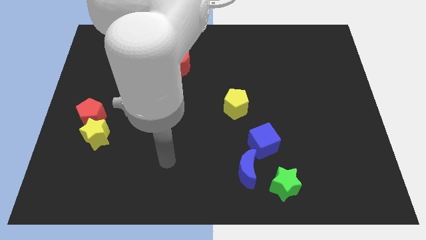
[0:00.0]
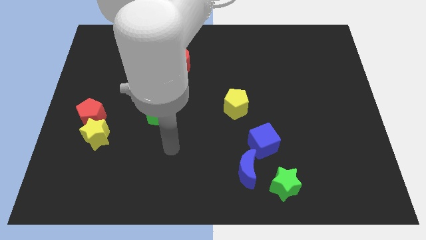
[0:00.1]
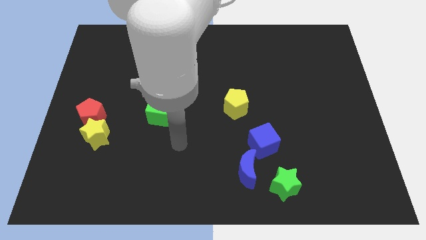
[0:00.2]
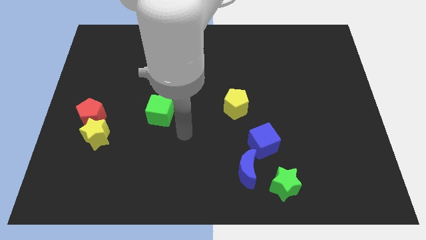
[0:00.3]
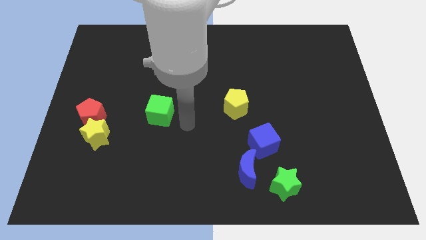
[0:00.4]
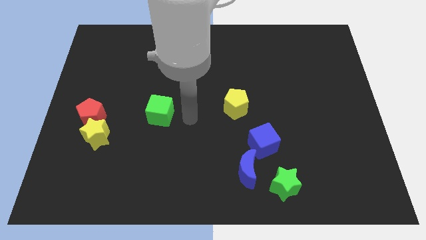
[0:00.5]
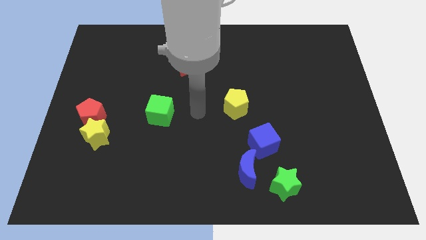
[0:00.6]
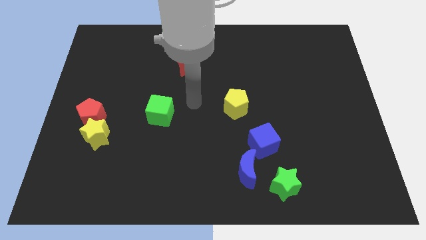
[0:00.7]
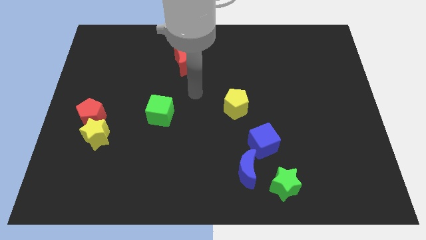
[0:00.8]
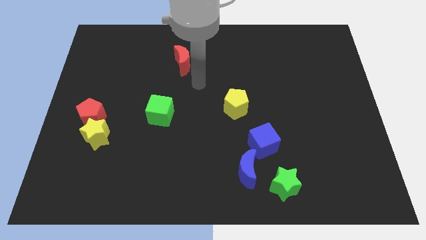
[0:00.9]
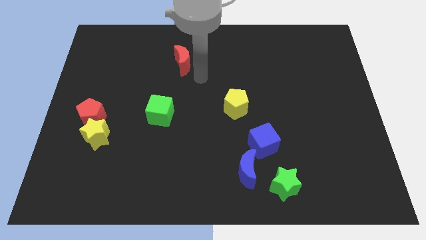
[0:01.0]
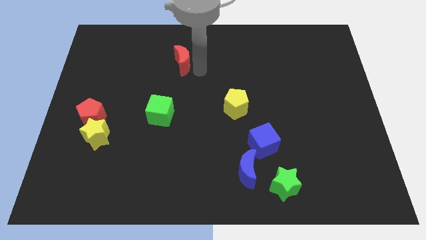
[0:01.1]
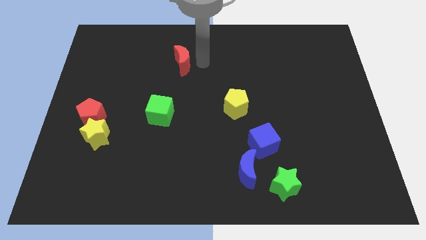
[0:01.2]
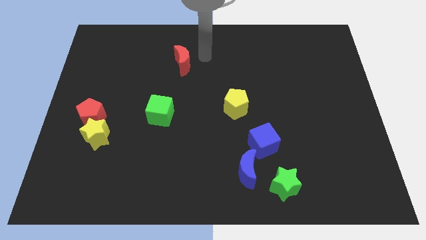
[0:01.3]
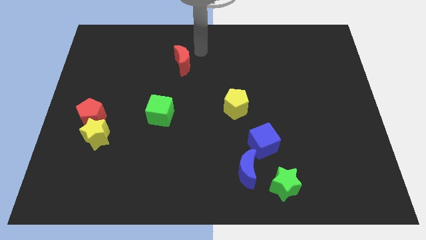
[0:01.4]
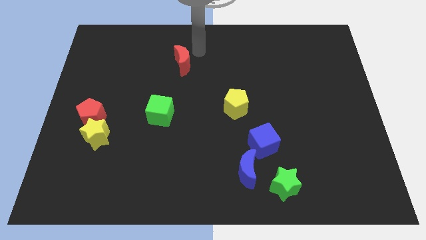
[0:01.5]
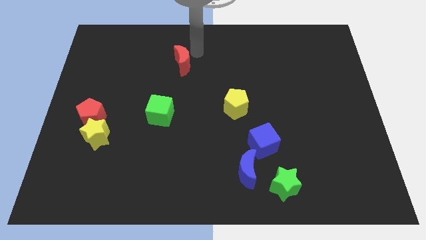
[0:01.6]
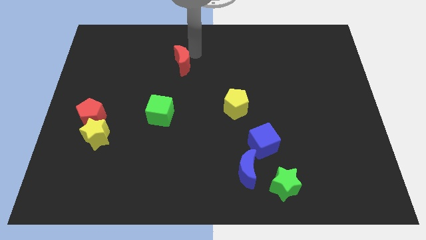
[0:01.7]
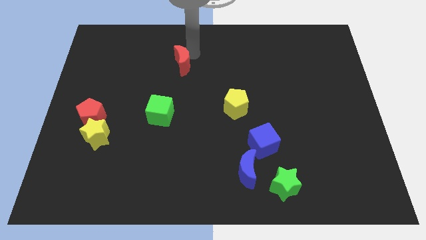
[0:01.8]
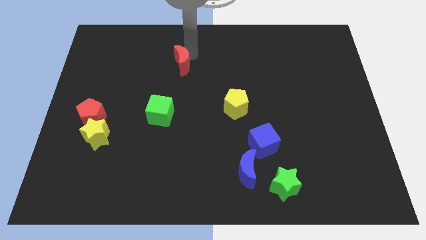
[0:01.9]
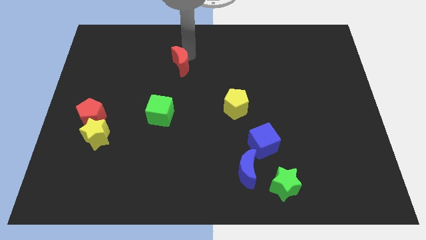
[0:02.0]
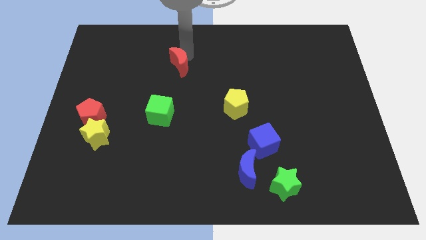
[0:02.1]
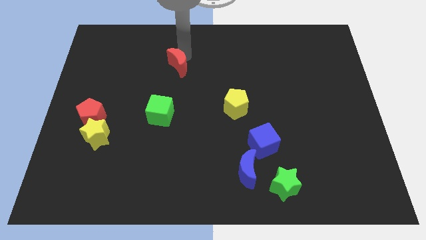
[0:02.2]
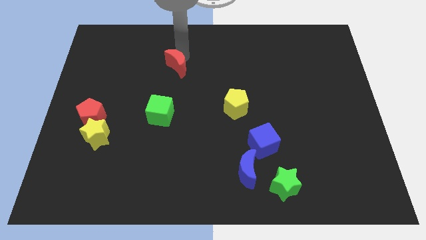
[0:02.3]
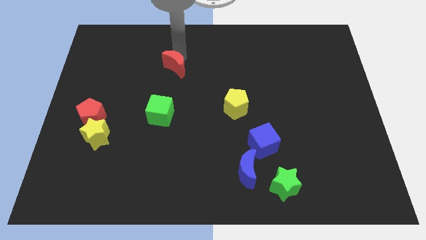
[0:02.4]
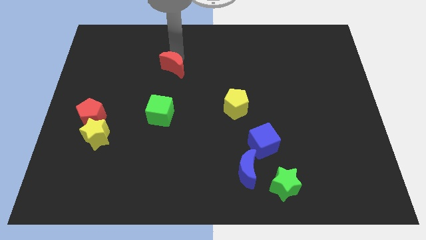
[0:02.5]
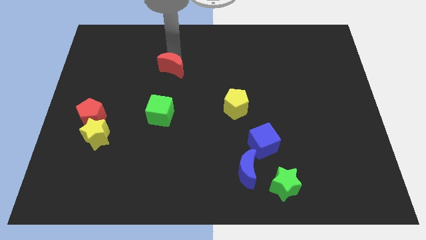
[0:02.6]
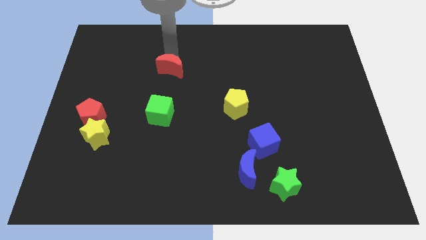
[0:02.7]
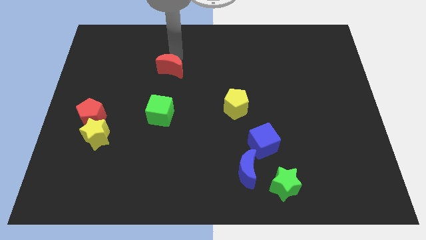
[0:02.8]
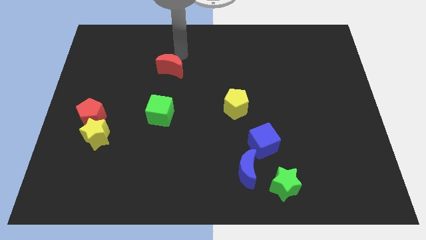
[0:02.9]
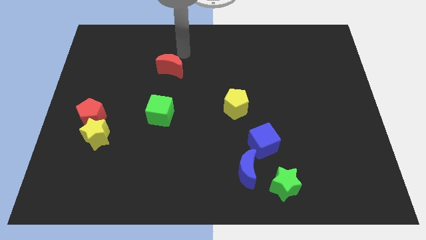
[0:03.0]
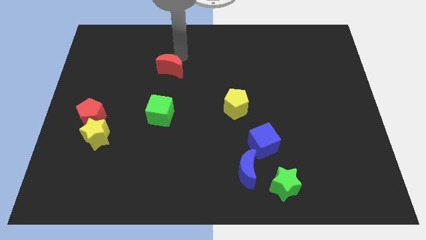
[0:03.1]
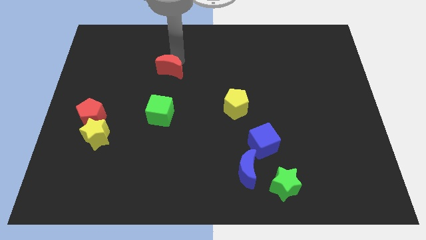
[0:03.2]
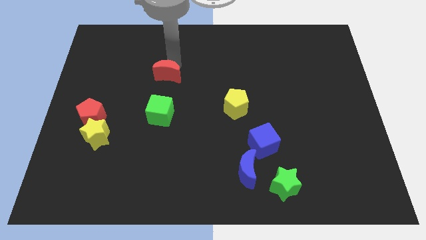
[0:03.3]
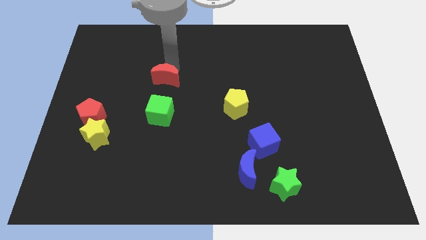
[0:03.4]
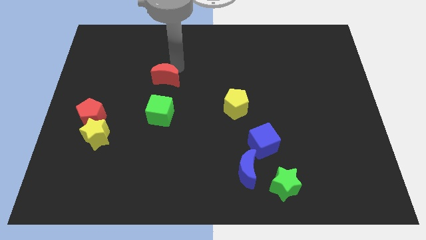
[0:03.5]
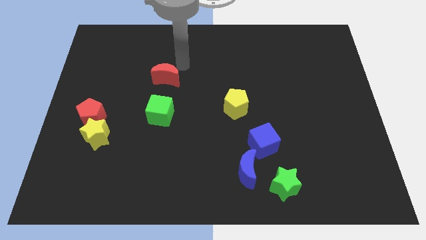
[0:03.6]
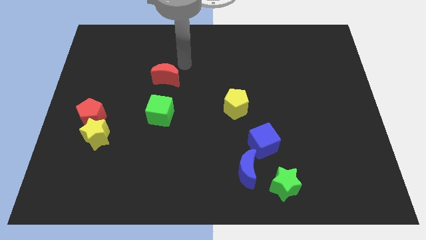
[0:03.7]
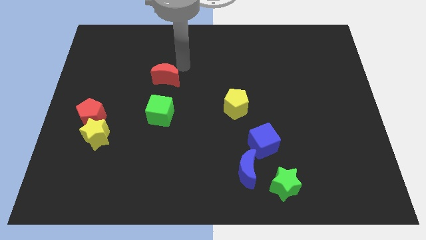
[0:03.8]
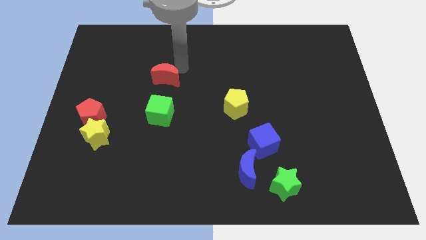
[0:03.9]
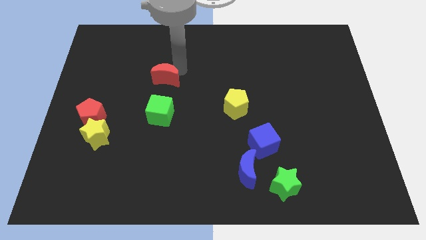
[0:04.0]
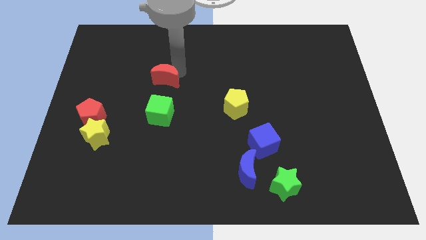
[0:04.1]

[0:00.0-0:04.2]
move the red moon a little bit downwards and then left

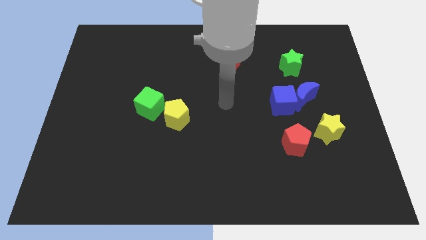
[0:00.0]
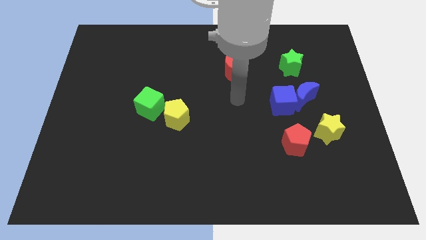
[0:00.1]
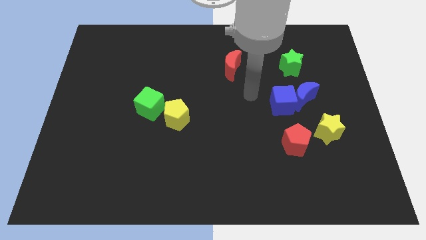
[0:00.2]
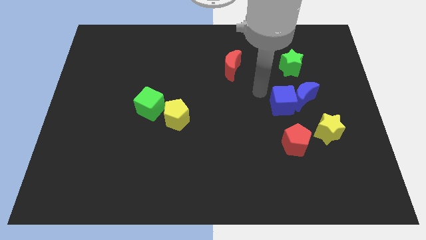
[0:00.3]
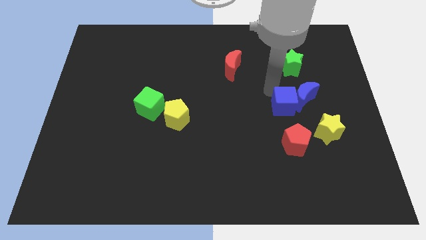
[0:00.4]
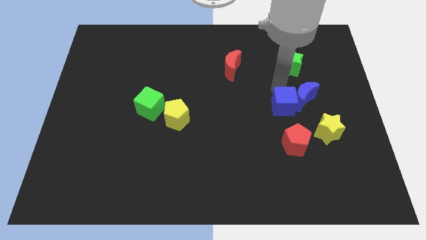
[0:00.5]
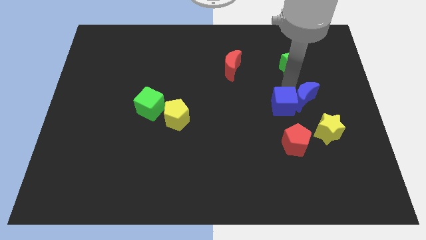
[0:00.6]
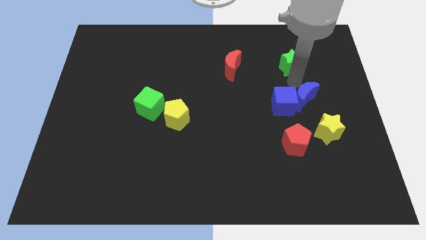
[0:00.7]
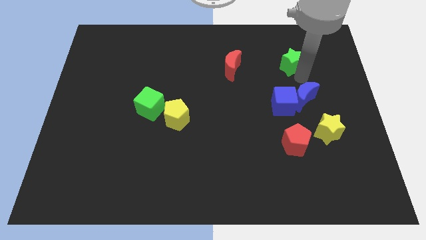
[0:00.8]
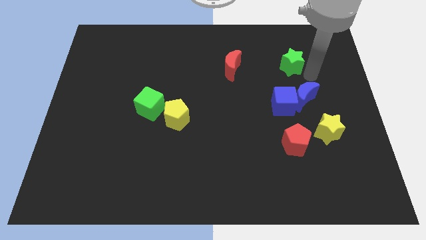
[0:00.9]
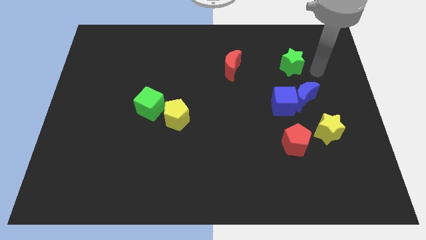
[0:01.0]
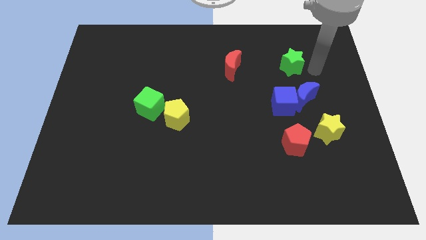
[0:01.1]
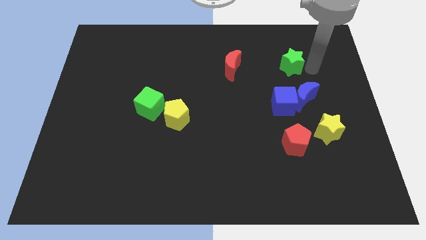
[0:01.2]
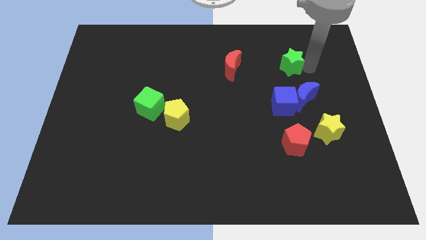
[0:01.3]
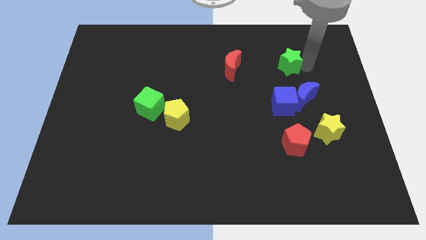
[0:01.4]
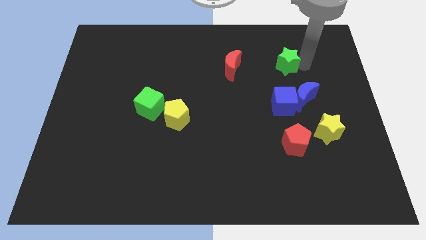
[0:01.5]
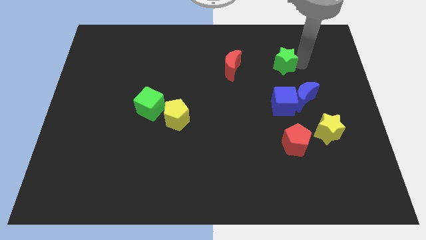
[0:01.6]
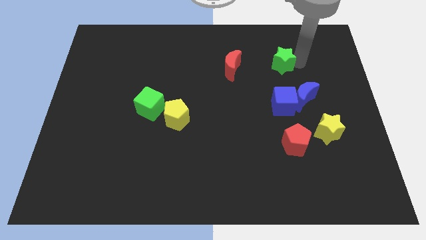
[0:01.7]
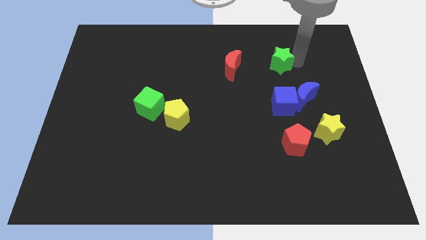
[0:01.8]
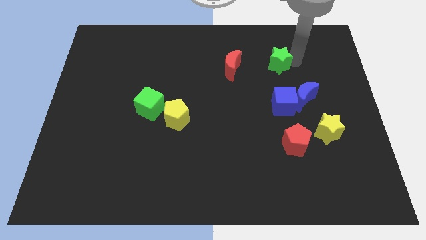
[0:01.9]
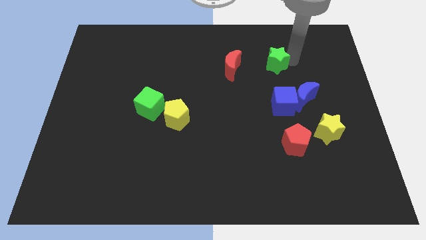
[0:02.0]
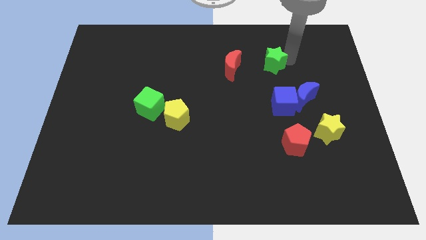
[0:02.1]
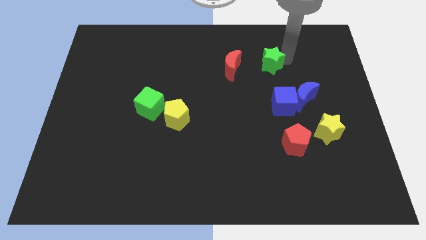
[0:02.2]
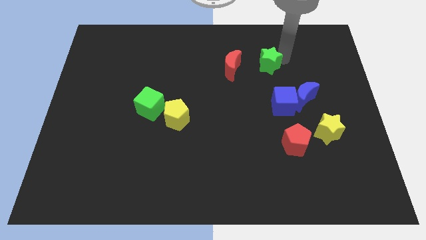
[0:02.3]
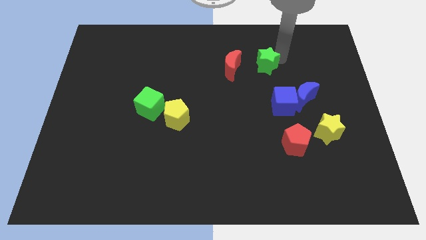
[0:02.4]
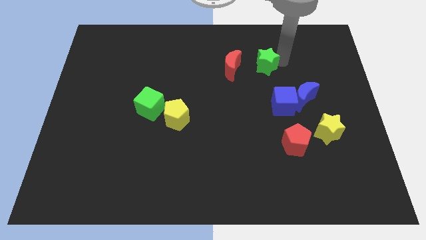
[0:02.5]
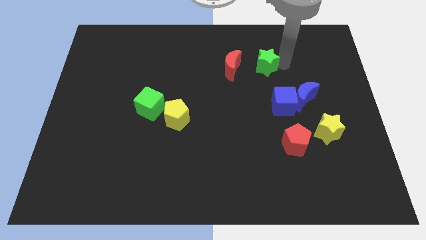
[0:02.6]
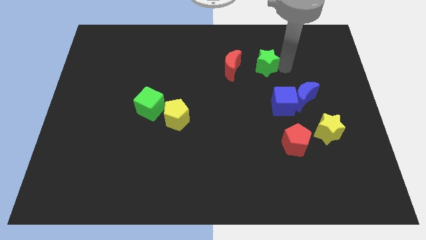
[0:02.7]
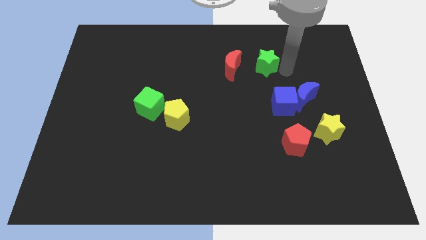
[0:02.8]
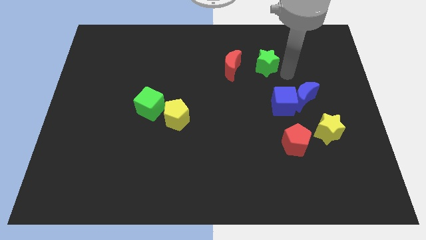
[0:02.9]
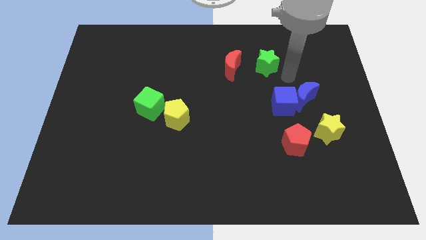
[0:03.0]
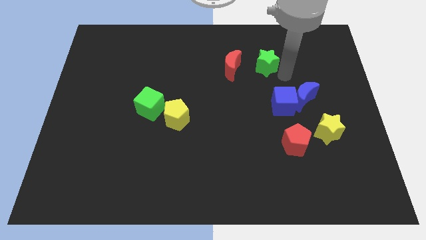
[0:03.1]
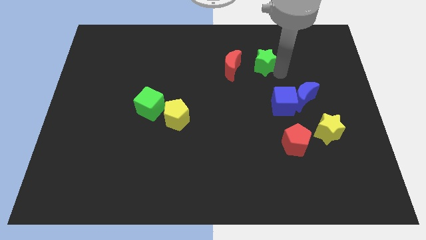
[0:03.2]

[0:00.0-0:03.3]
slightly move the green star to the left

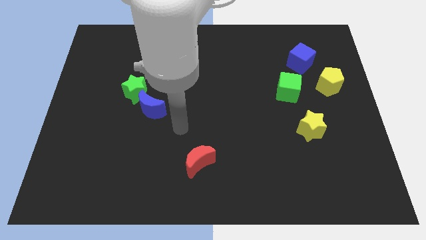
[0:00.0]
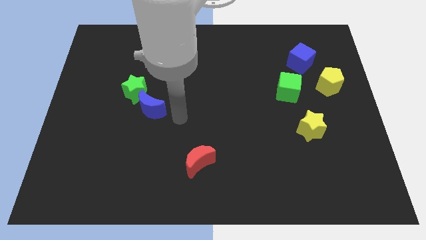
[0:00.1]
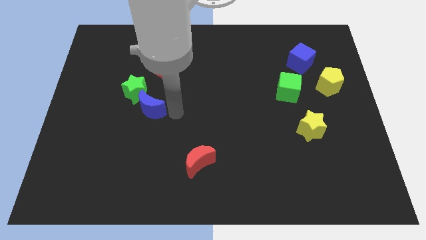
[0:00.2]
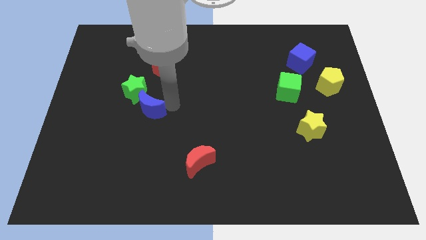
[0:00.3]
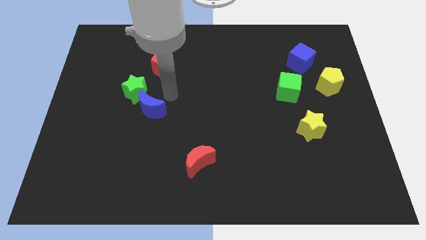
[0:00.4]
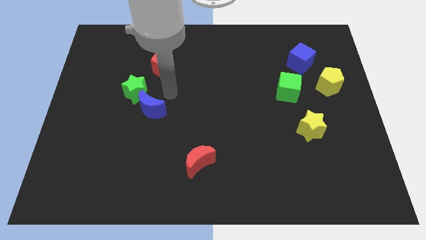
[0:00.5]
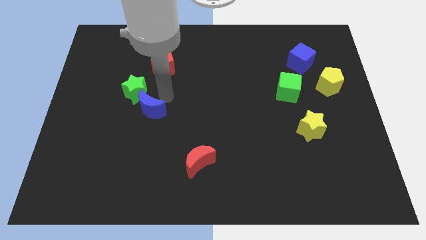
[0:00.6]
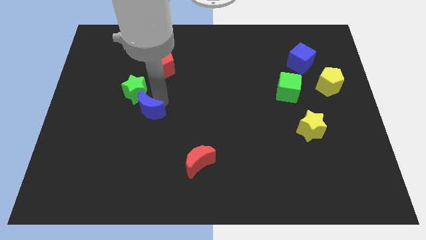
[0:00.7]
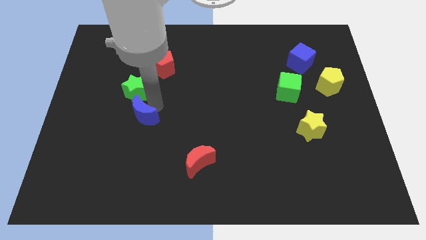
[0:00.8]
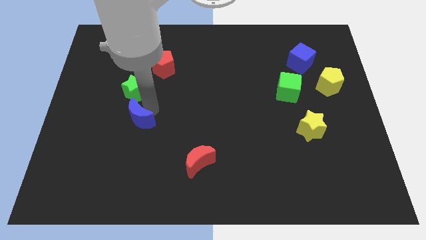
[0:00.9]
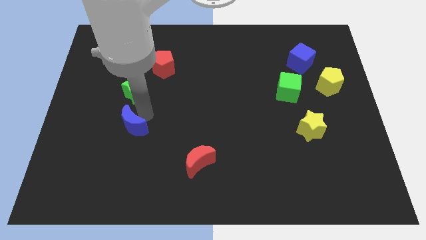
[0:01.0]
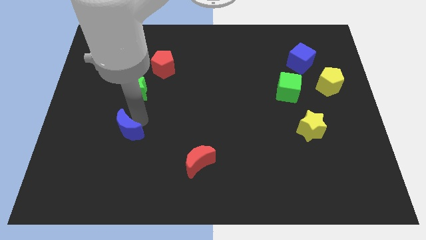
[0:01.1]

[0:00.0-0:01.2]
slide the blue moon down and left diagonally somewhat
